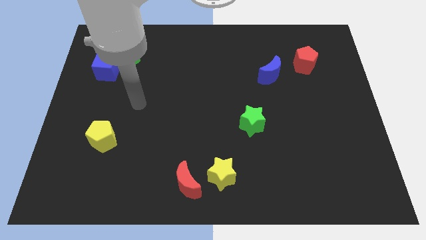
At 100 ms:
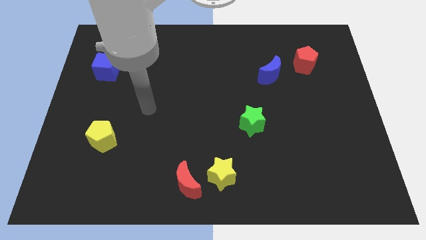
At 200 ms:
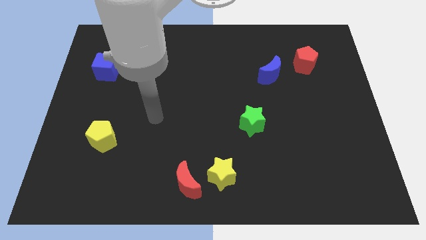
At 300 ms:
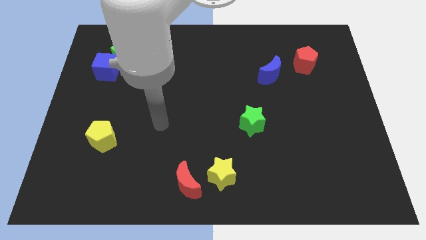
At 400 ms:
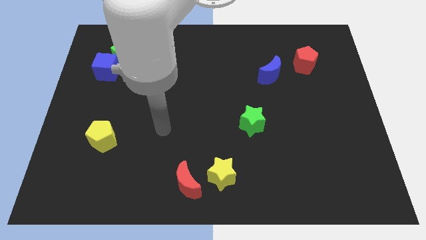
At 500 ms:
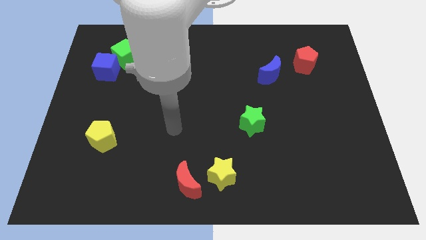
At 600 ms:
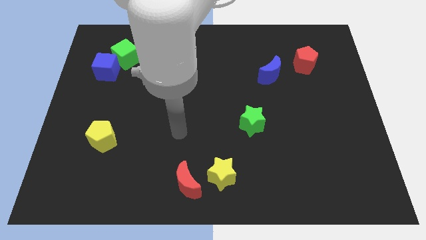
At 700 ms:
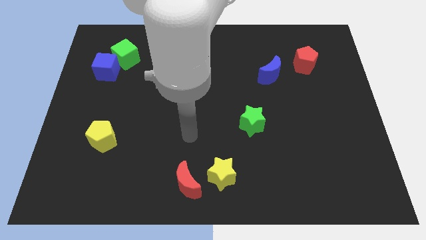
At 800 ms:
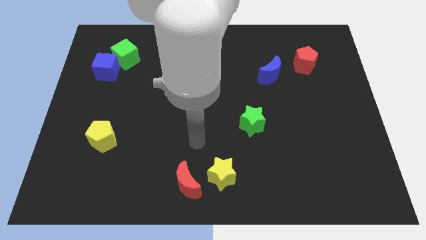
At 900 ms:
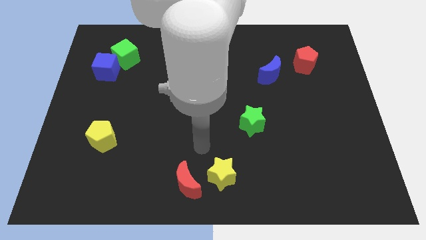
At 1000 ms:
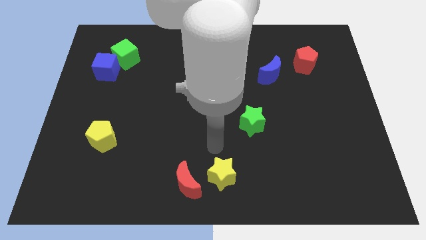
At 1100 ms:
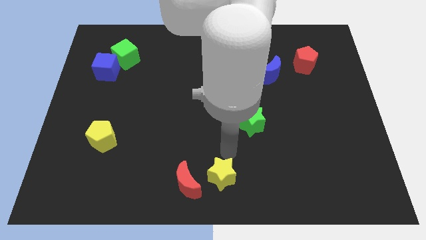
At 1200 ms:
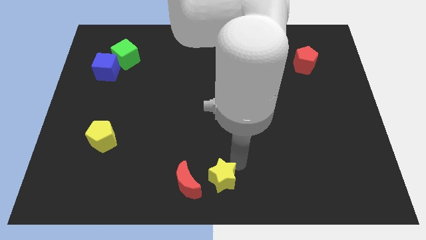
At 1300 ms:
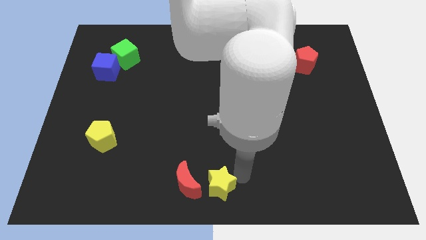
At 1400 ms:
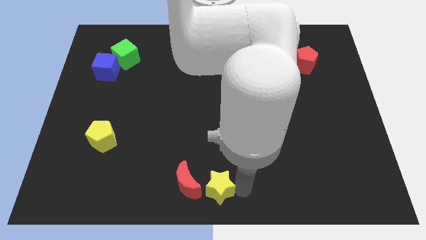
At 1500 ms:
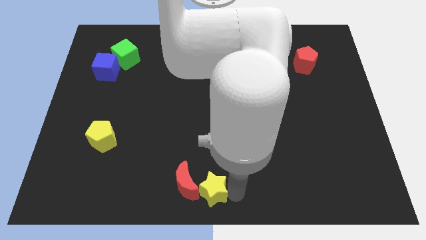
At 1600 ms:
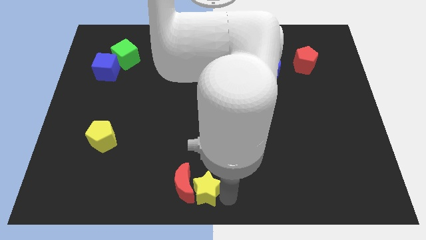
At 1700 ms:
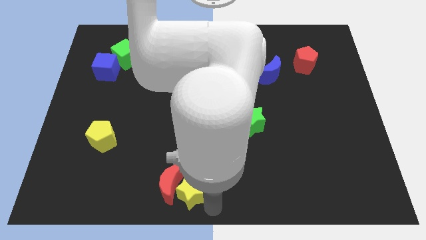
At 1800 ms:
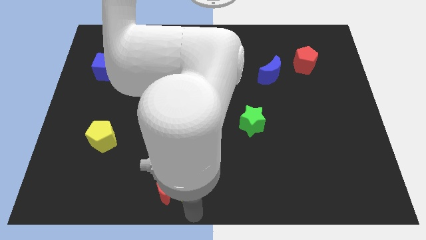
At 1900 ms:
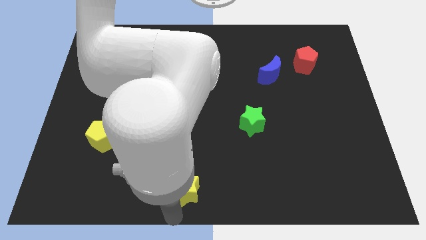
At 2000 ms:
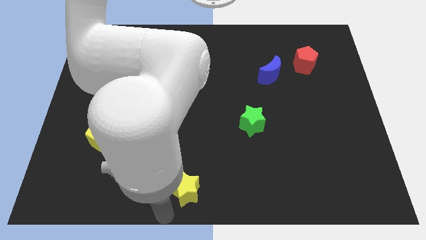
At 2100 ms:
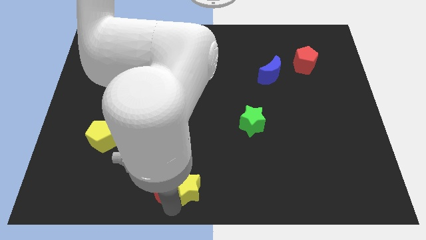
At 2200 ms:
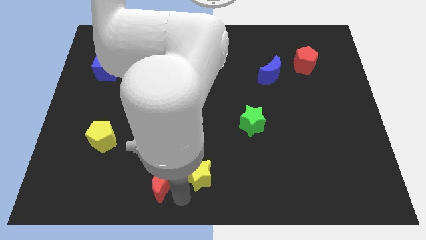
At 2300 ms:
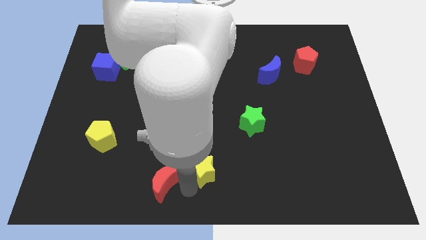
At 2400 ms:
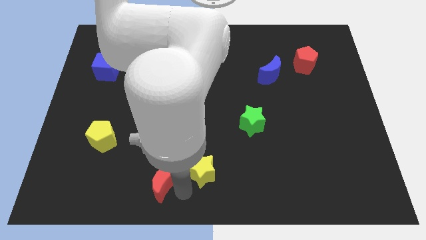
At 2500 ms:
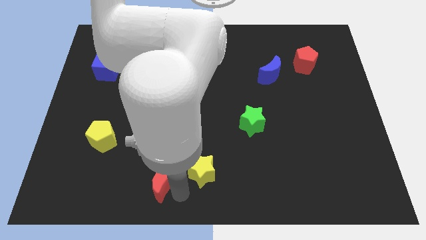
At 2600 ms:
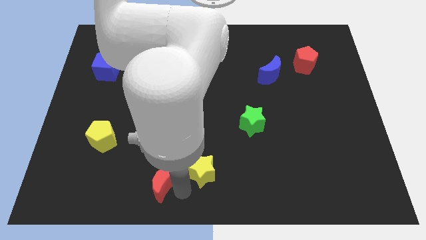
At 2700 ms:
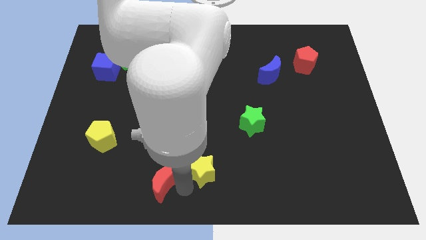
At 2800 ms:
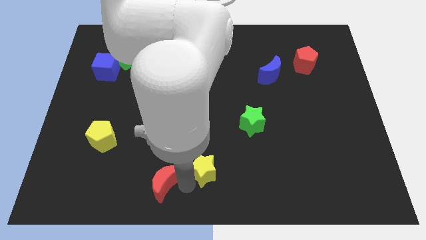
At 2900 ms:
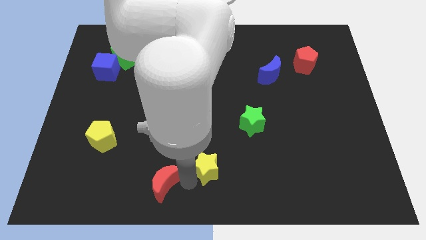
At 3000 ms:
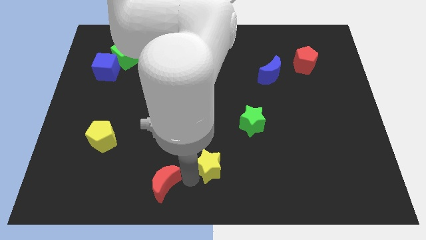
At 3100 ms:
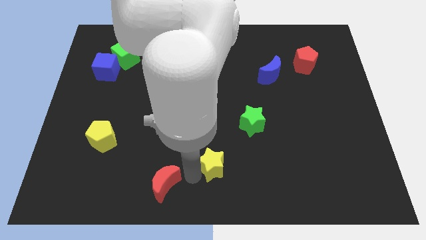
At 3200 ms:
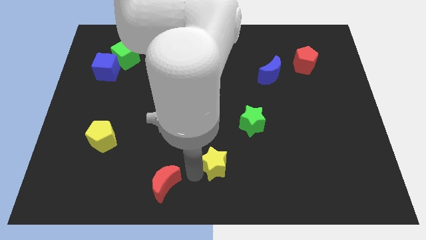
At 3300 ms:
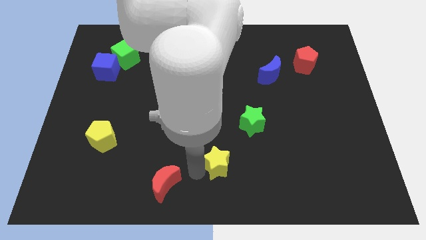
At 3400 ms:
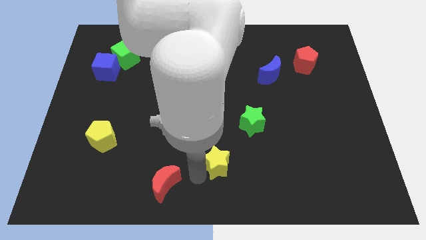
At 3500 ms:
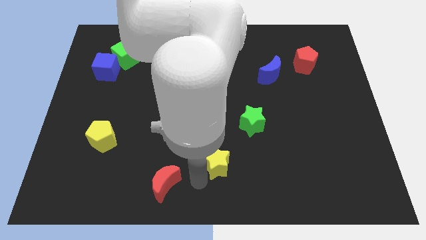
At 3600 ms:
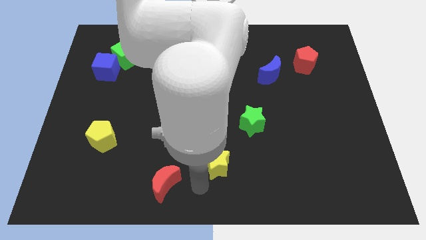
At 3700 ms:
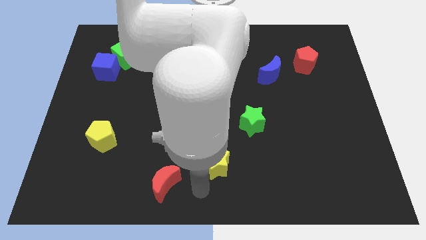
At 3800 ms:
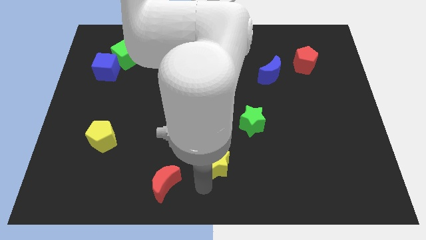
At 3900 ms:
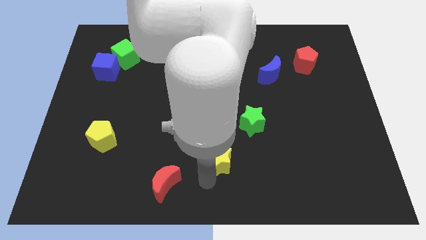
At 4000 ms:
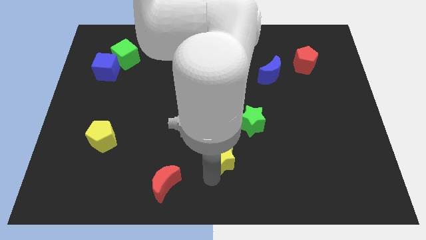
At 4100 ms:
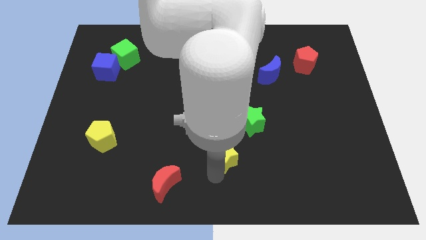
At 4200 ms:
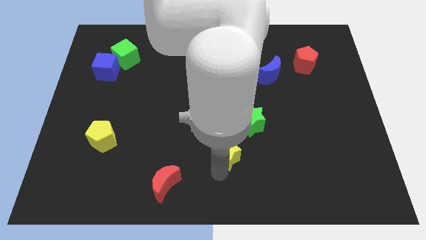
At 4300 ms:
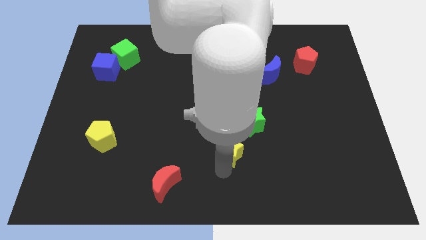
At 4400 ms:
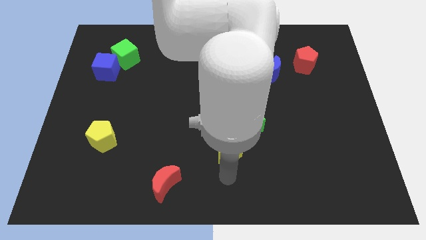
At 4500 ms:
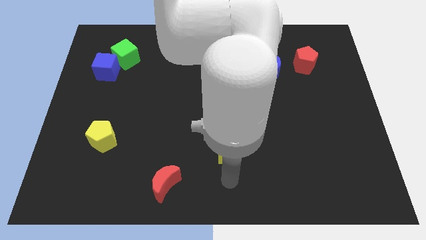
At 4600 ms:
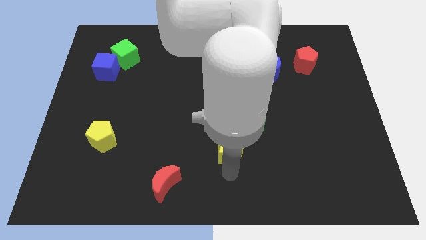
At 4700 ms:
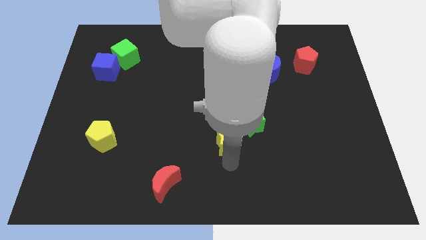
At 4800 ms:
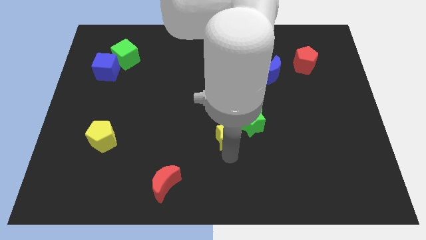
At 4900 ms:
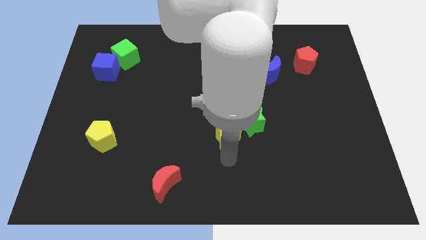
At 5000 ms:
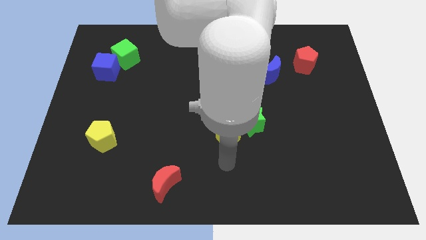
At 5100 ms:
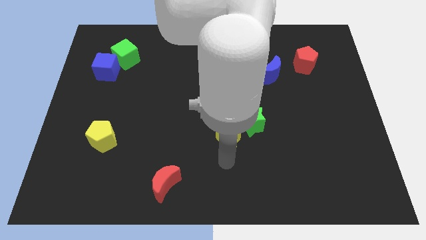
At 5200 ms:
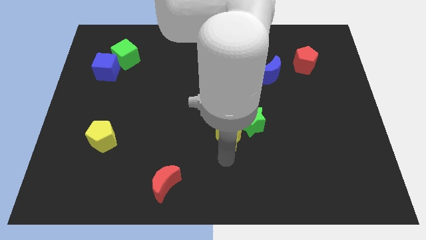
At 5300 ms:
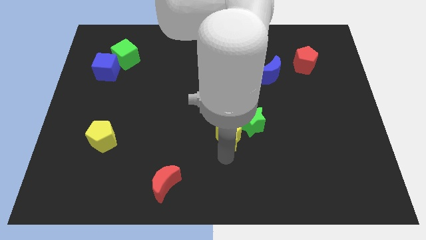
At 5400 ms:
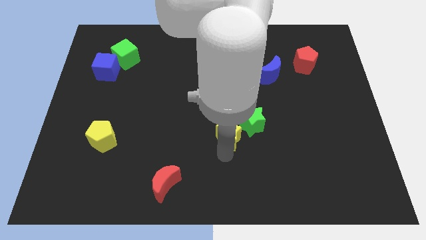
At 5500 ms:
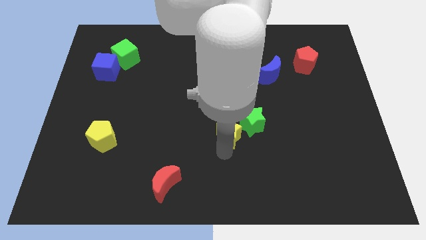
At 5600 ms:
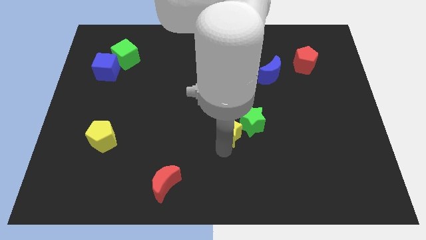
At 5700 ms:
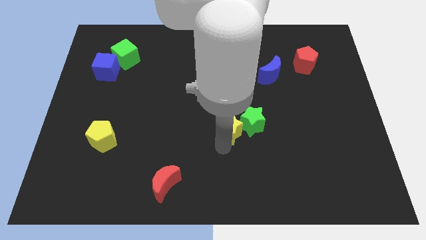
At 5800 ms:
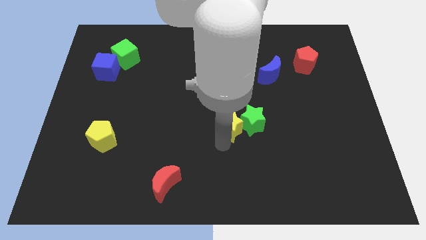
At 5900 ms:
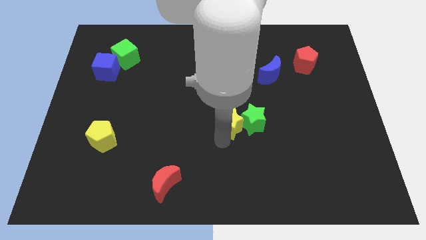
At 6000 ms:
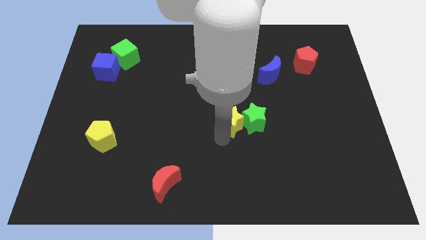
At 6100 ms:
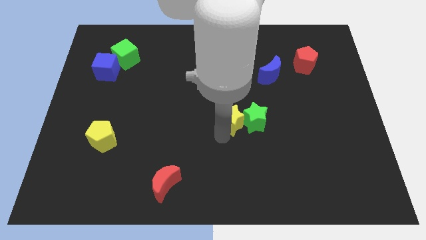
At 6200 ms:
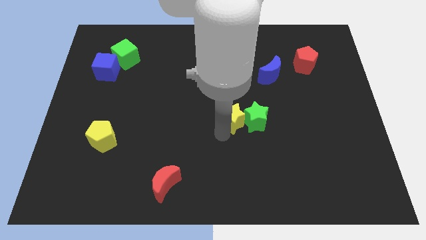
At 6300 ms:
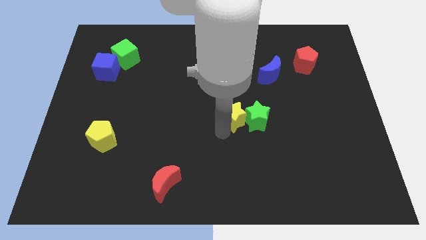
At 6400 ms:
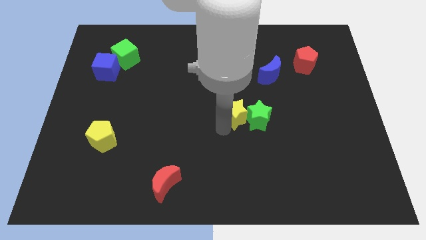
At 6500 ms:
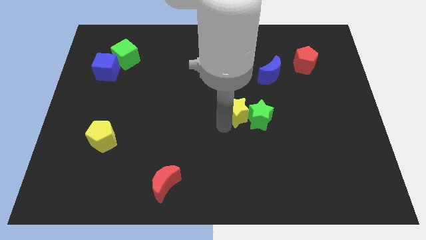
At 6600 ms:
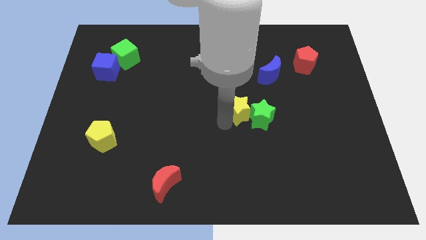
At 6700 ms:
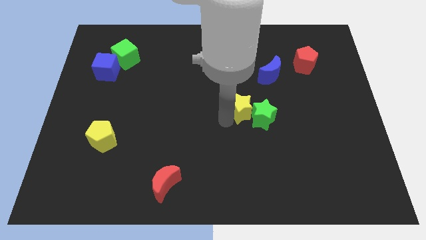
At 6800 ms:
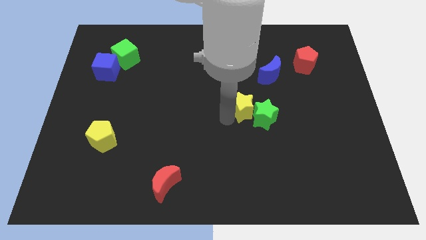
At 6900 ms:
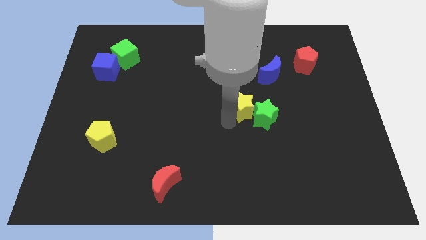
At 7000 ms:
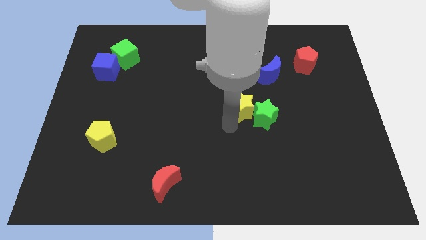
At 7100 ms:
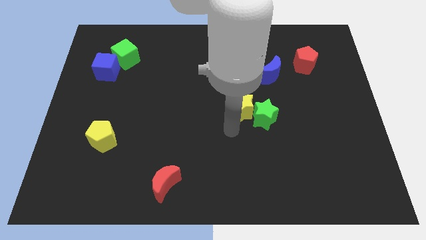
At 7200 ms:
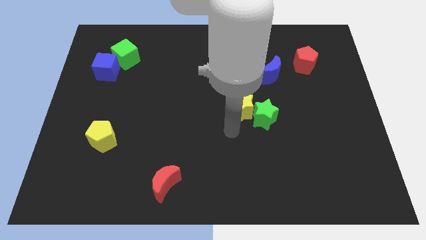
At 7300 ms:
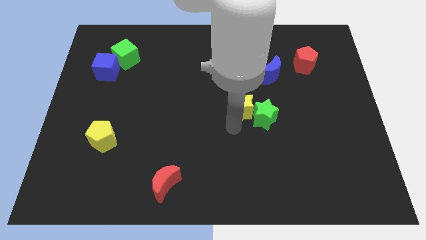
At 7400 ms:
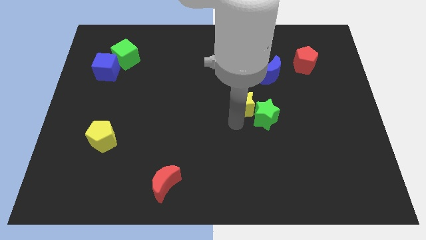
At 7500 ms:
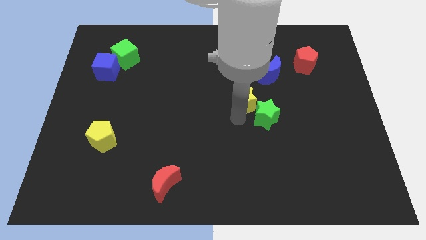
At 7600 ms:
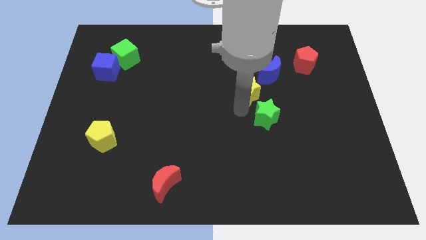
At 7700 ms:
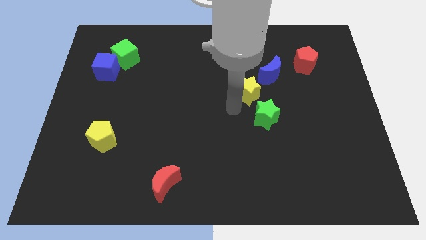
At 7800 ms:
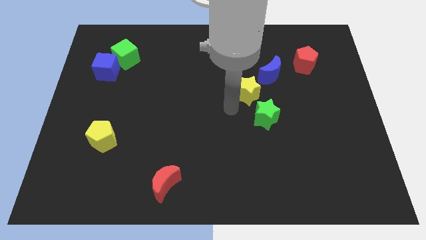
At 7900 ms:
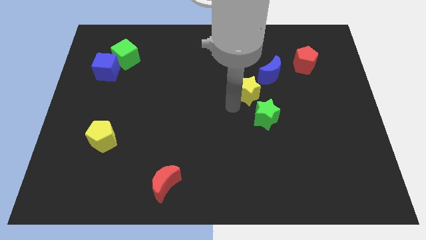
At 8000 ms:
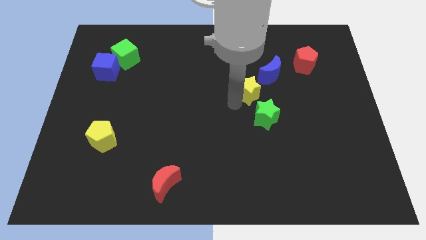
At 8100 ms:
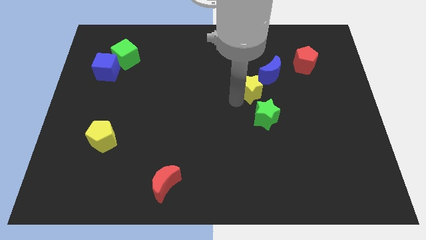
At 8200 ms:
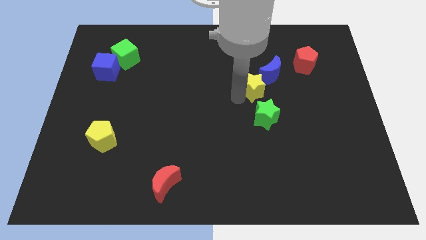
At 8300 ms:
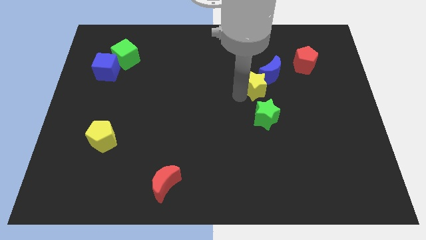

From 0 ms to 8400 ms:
put the yellow star towards the blue moon
